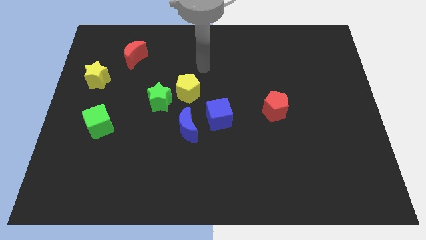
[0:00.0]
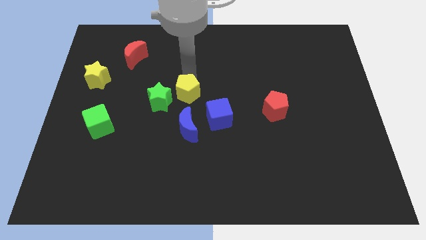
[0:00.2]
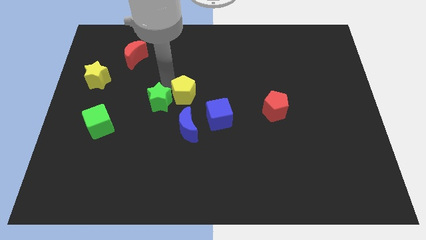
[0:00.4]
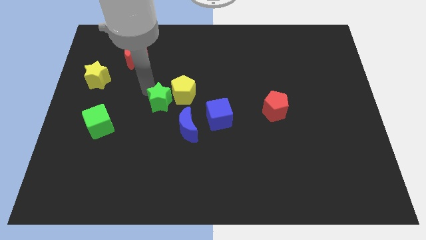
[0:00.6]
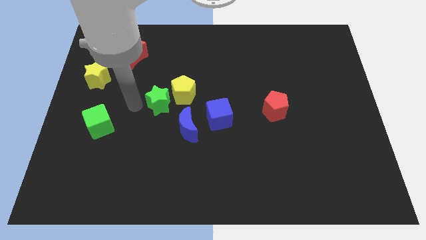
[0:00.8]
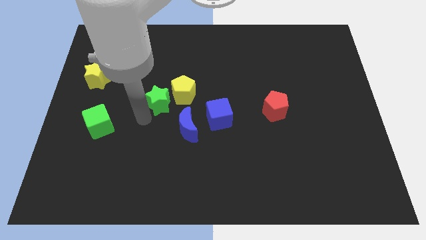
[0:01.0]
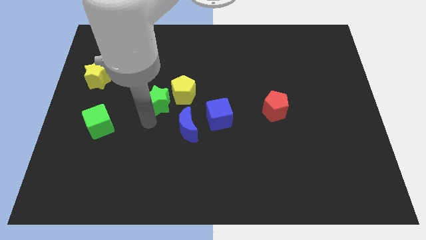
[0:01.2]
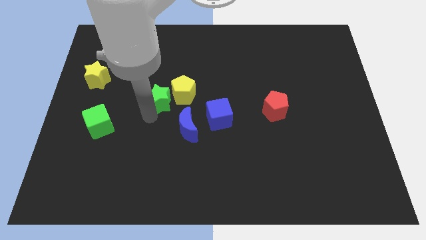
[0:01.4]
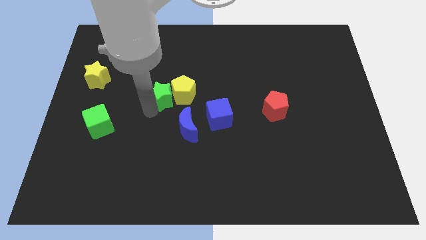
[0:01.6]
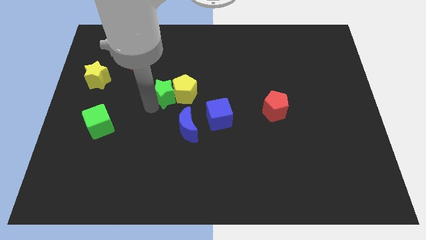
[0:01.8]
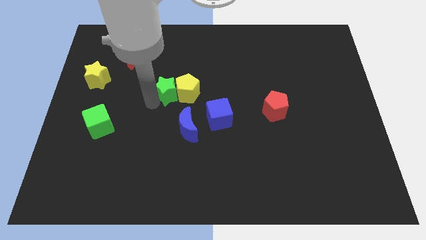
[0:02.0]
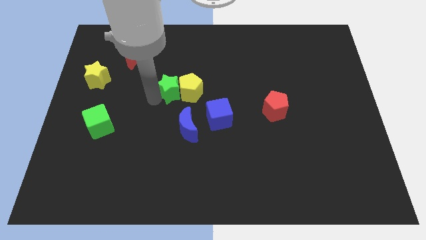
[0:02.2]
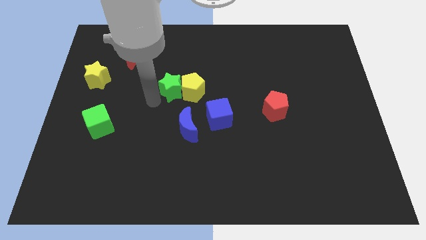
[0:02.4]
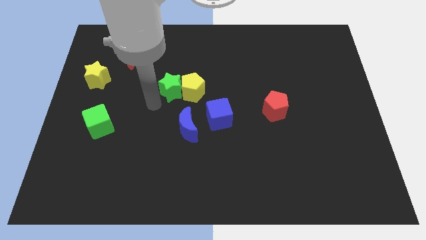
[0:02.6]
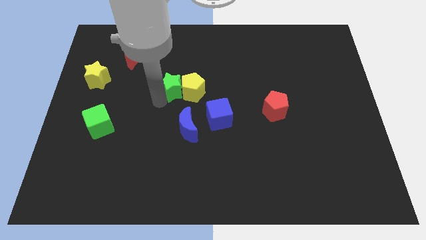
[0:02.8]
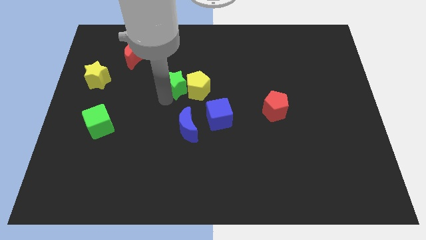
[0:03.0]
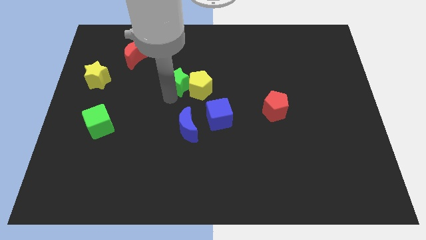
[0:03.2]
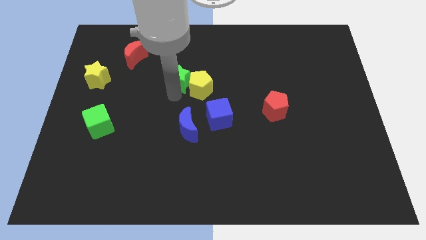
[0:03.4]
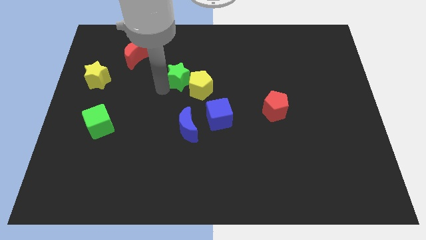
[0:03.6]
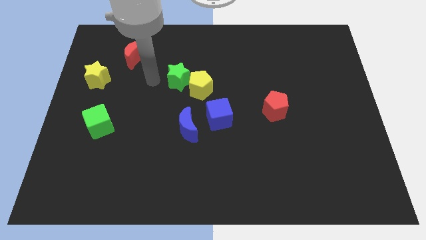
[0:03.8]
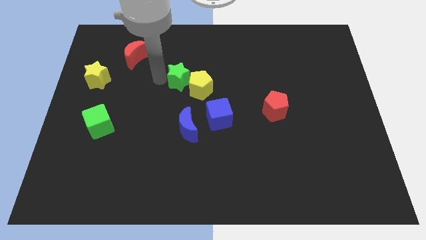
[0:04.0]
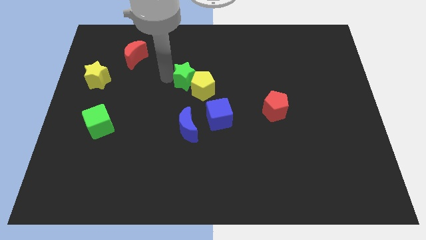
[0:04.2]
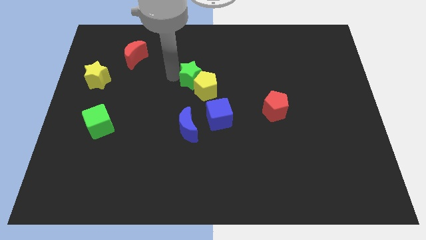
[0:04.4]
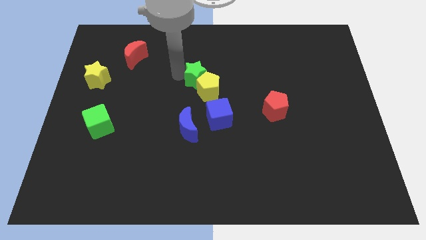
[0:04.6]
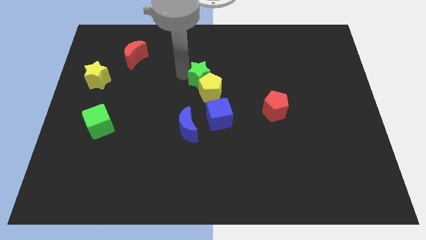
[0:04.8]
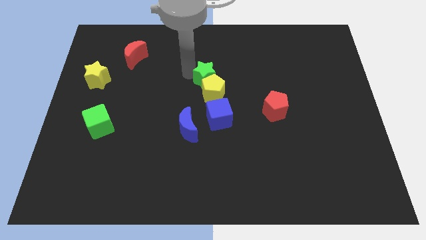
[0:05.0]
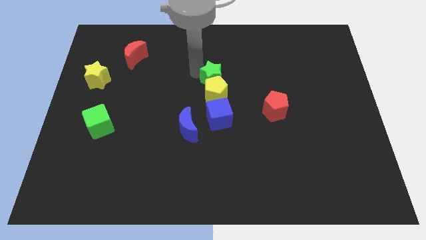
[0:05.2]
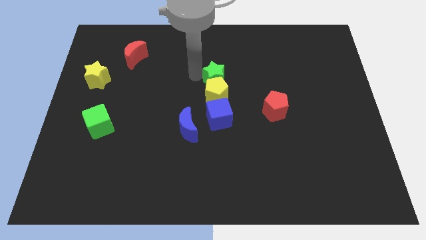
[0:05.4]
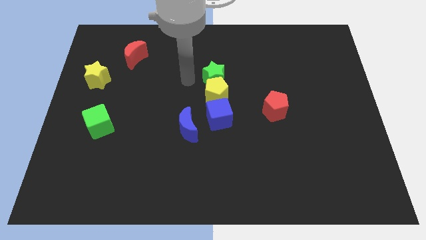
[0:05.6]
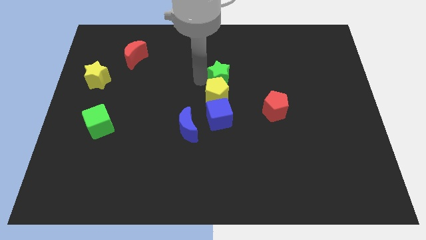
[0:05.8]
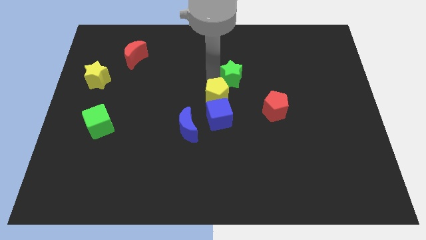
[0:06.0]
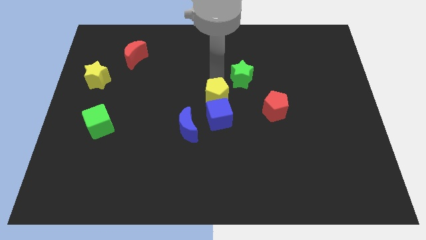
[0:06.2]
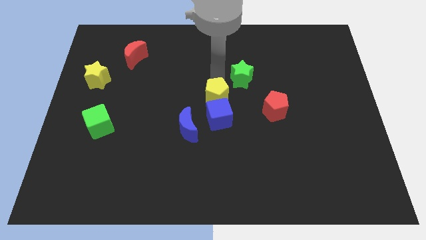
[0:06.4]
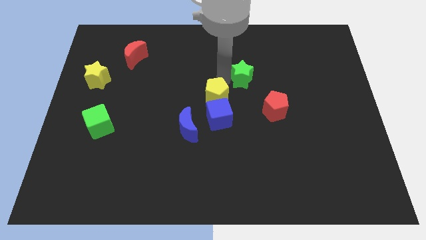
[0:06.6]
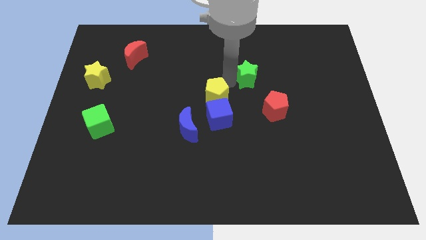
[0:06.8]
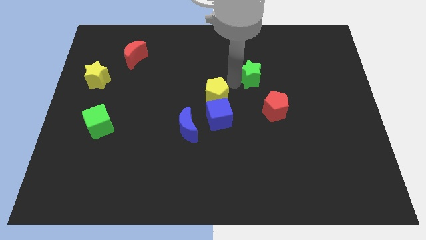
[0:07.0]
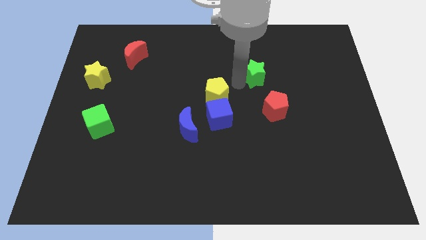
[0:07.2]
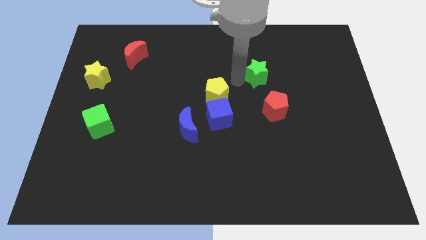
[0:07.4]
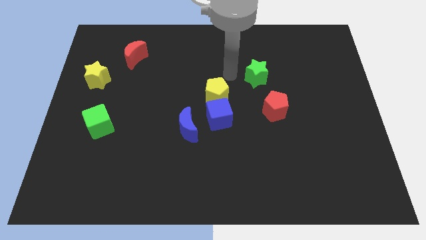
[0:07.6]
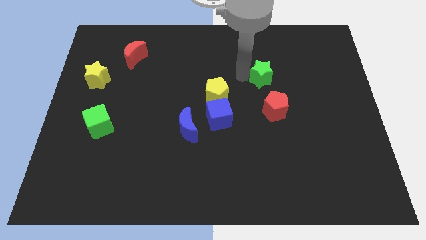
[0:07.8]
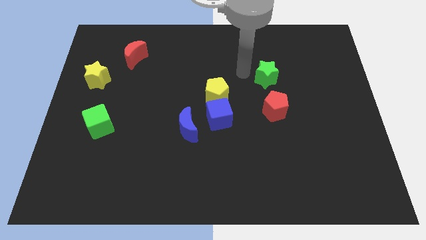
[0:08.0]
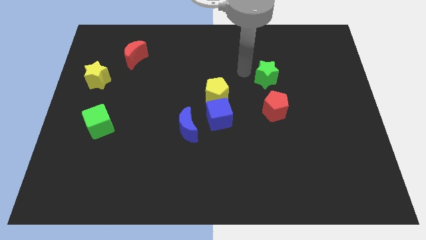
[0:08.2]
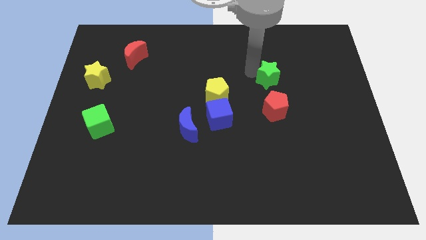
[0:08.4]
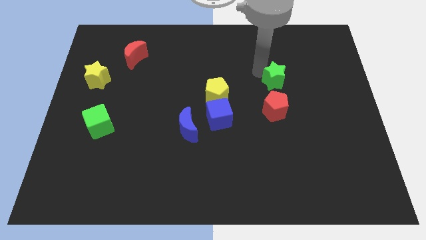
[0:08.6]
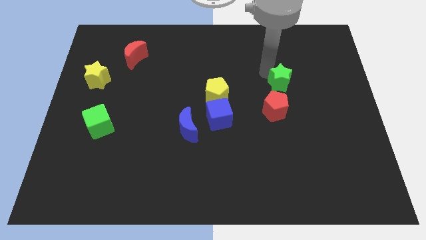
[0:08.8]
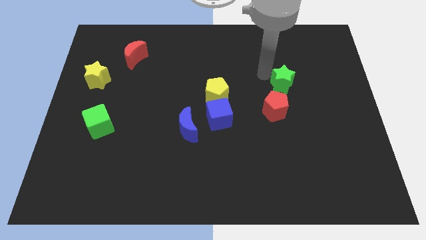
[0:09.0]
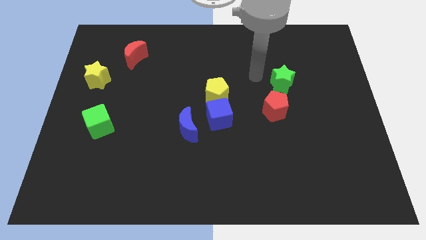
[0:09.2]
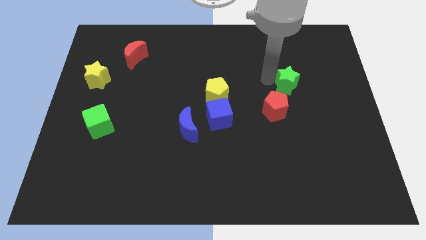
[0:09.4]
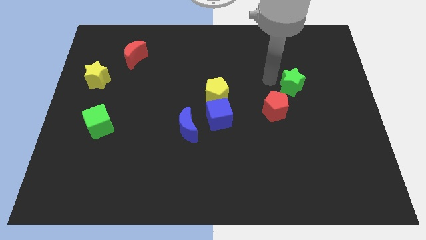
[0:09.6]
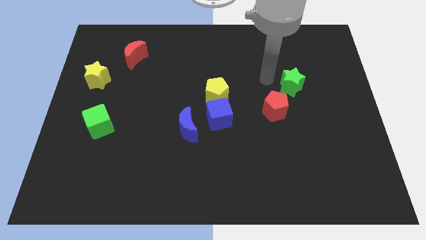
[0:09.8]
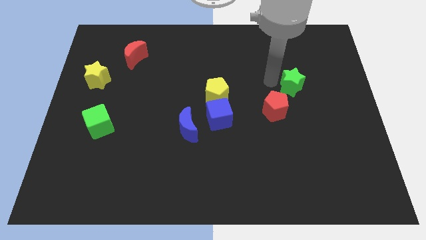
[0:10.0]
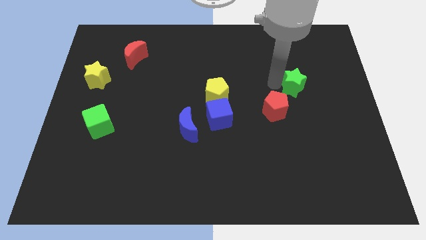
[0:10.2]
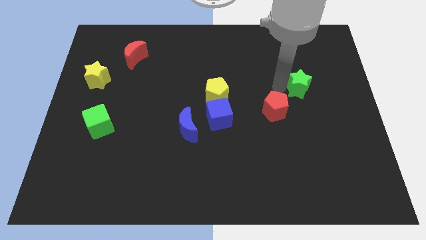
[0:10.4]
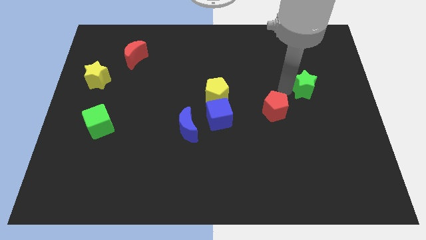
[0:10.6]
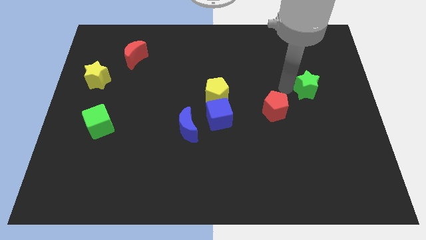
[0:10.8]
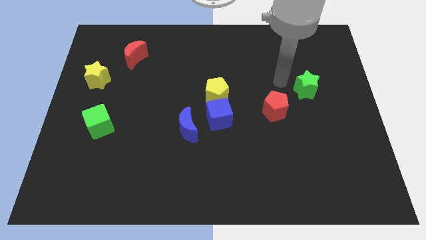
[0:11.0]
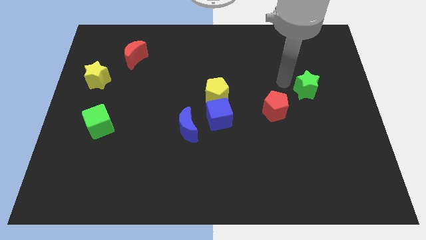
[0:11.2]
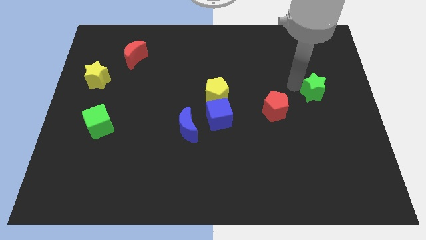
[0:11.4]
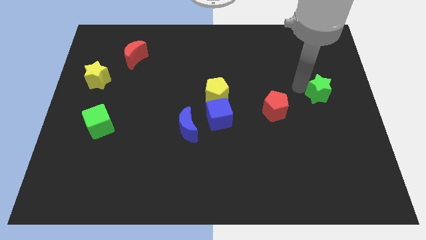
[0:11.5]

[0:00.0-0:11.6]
push the green star to the center right

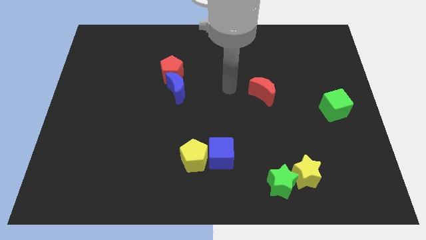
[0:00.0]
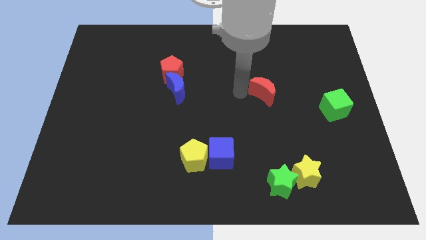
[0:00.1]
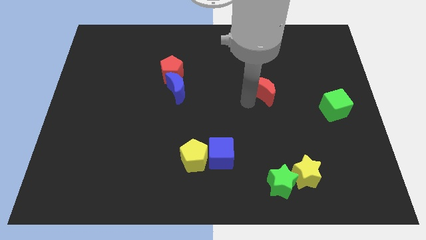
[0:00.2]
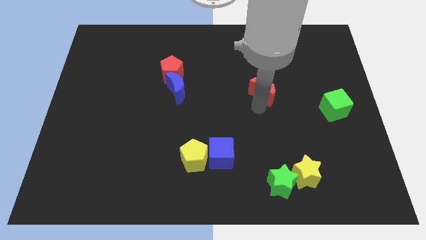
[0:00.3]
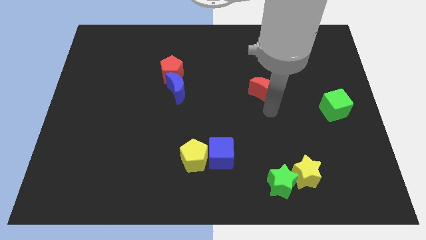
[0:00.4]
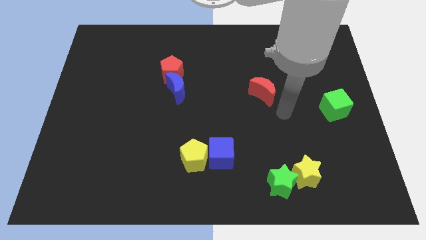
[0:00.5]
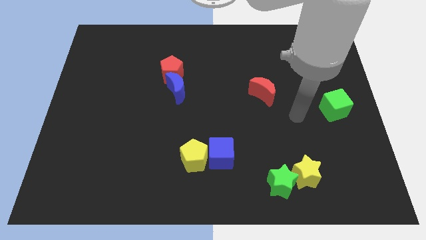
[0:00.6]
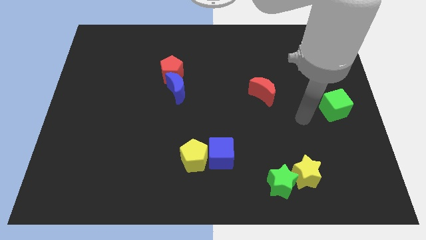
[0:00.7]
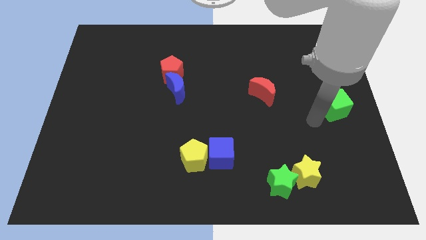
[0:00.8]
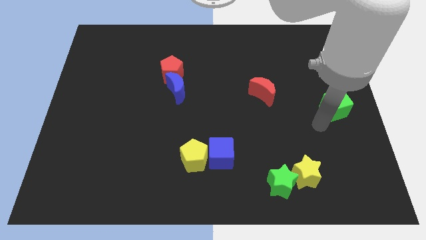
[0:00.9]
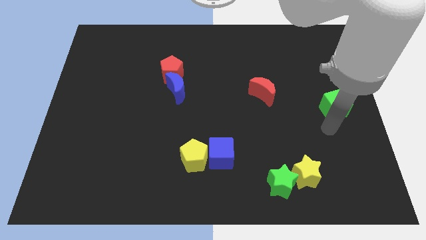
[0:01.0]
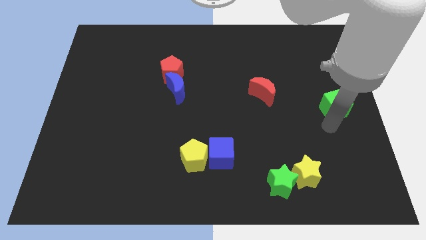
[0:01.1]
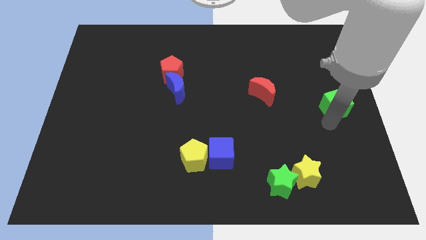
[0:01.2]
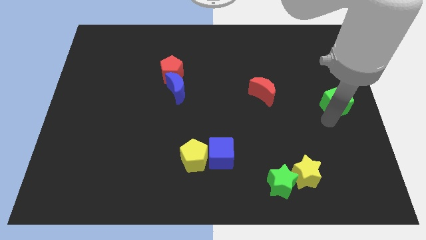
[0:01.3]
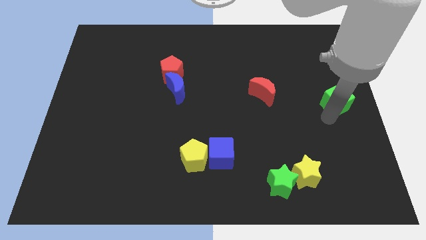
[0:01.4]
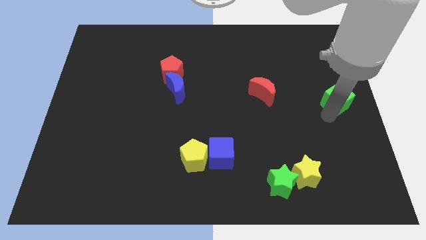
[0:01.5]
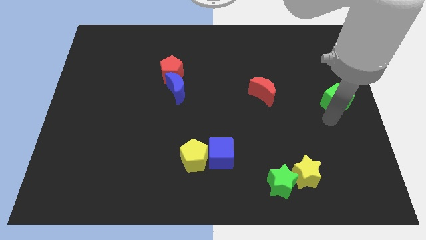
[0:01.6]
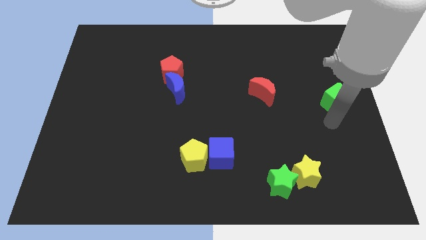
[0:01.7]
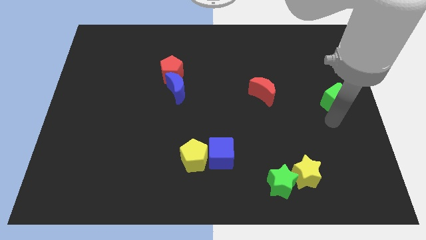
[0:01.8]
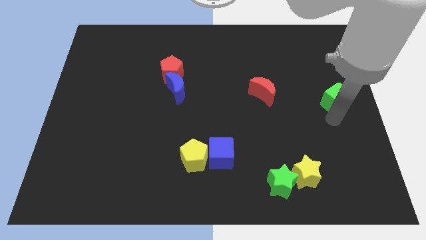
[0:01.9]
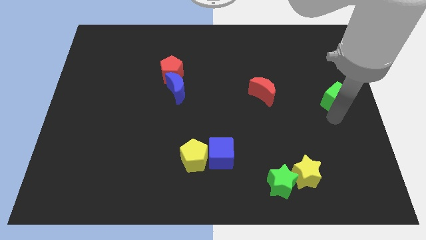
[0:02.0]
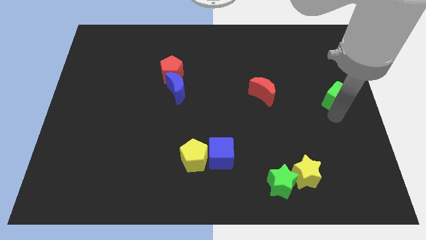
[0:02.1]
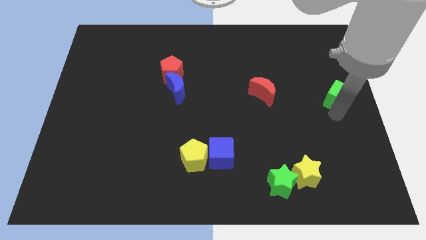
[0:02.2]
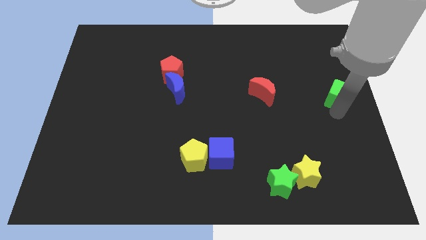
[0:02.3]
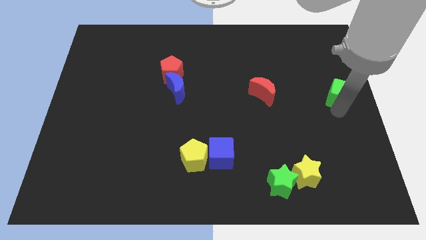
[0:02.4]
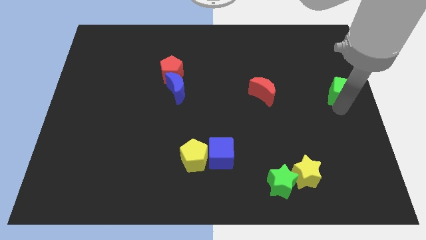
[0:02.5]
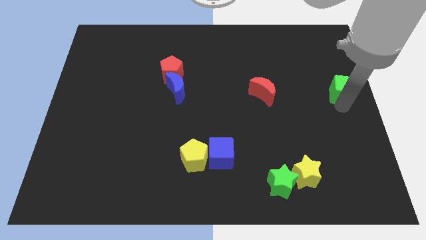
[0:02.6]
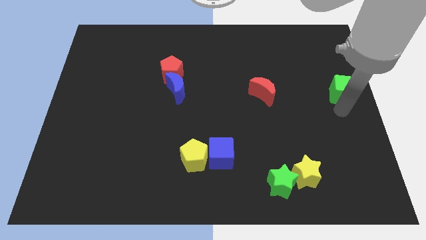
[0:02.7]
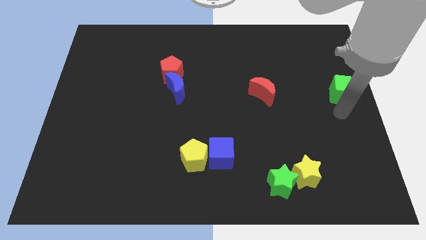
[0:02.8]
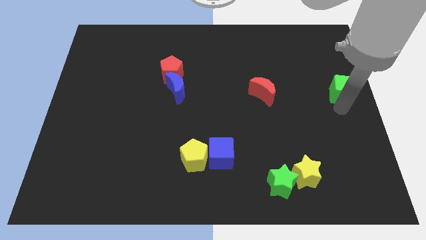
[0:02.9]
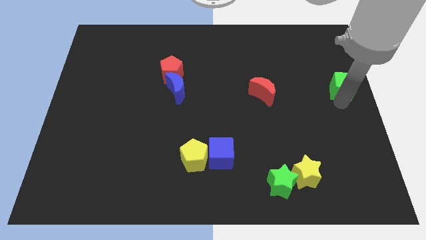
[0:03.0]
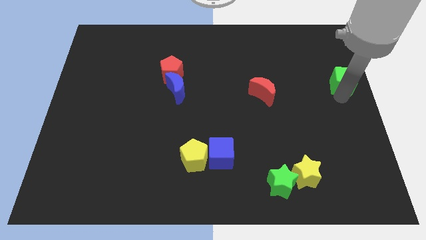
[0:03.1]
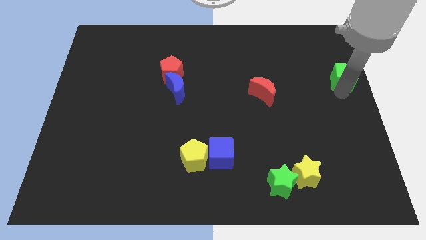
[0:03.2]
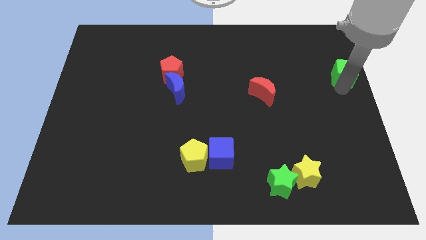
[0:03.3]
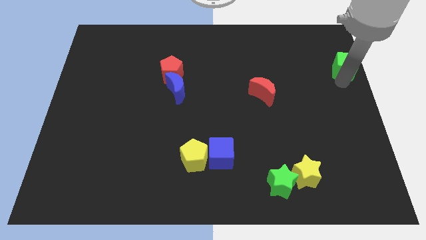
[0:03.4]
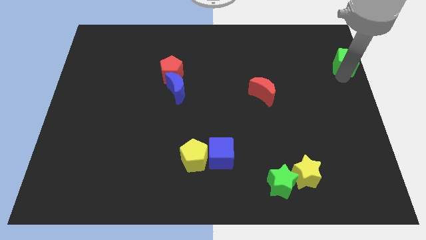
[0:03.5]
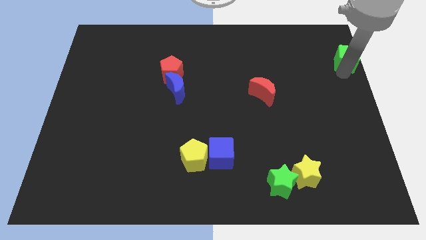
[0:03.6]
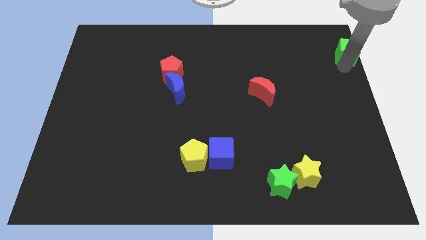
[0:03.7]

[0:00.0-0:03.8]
move the green cube to the top right corner
